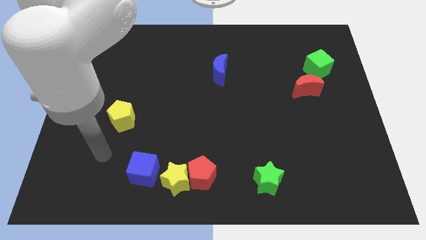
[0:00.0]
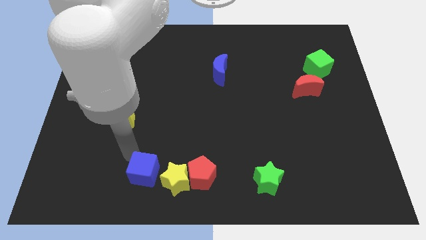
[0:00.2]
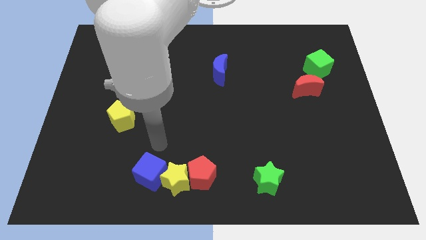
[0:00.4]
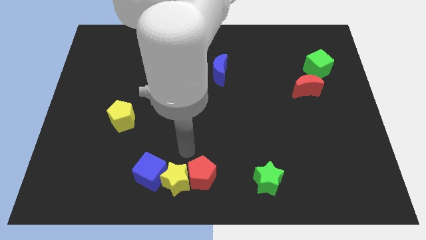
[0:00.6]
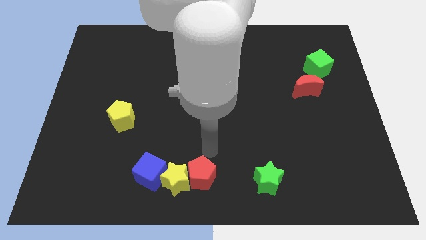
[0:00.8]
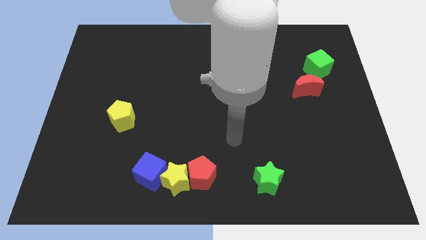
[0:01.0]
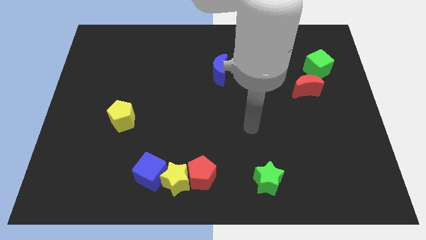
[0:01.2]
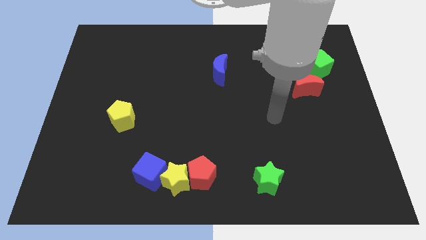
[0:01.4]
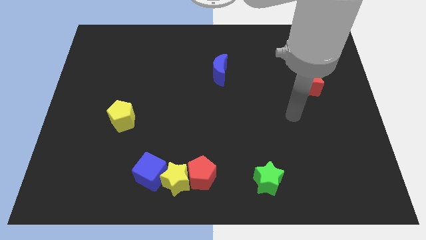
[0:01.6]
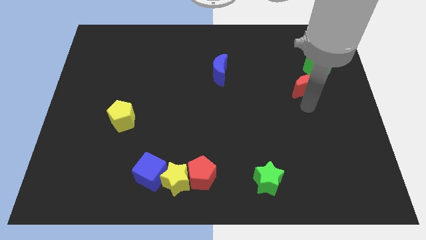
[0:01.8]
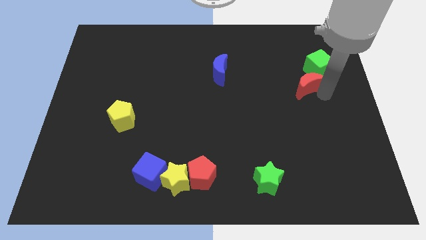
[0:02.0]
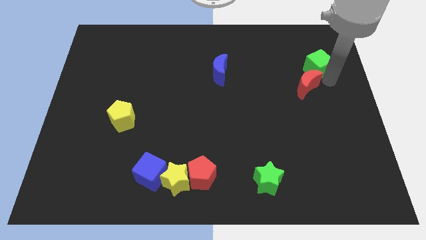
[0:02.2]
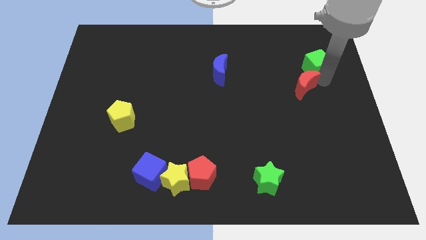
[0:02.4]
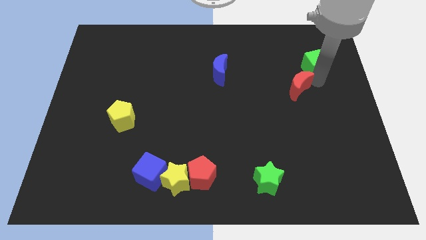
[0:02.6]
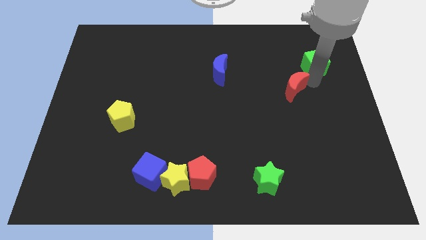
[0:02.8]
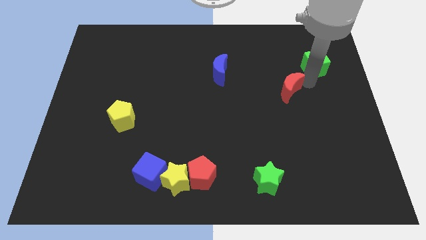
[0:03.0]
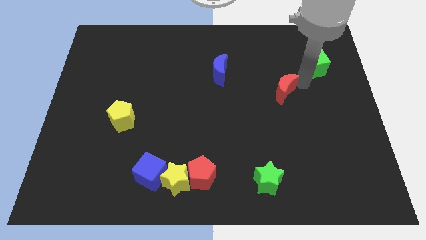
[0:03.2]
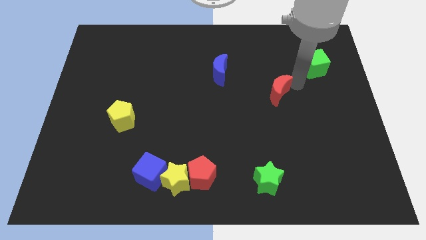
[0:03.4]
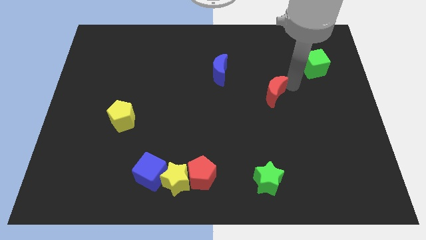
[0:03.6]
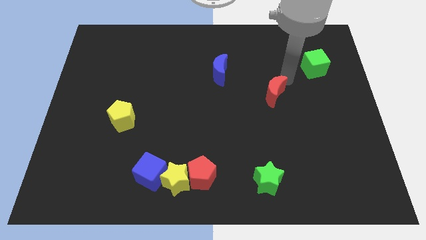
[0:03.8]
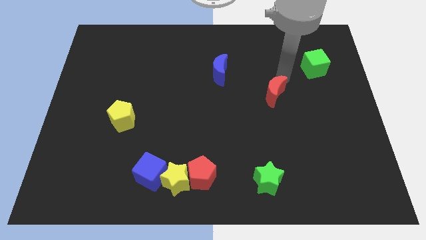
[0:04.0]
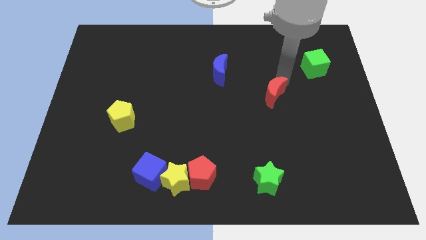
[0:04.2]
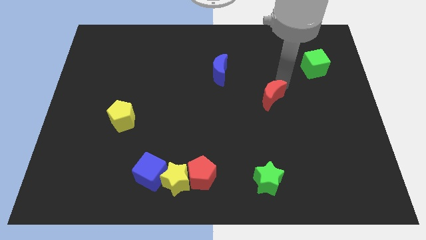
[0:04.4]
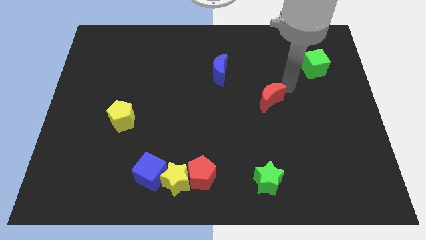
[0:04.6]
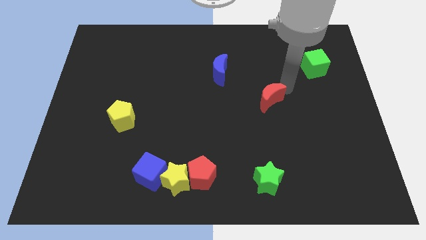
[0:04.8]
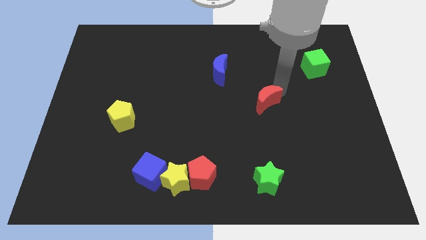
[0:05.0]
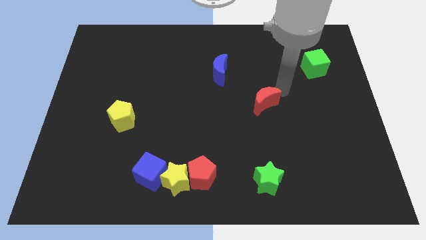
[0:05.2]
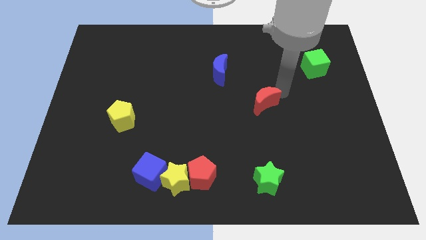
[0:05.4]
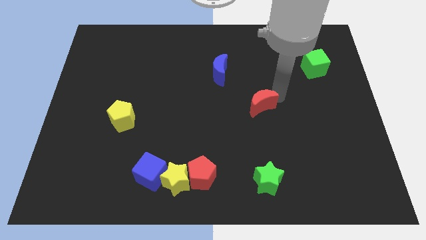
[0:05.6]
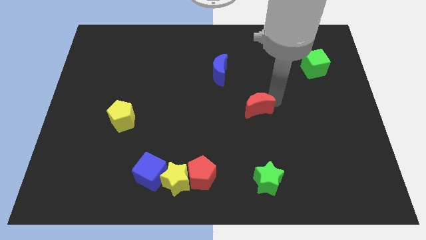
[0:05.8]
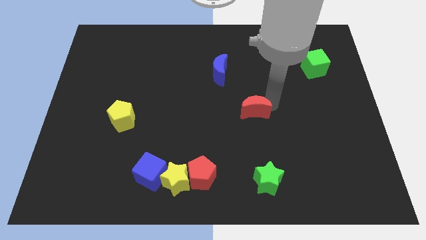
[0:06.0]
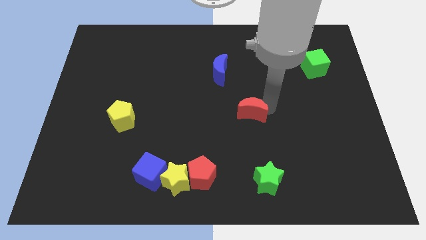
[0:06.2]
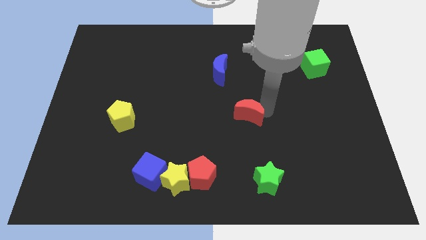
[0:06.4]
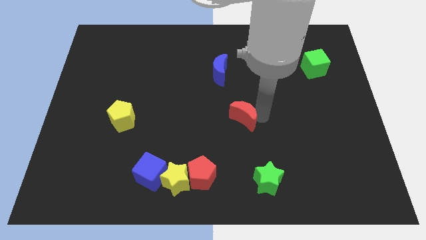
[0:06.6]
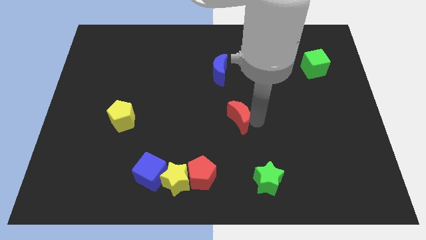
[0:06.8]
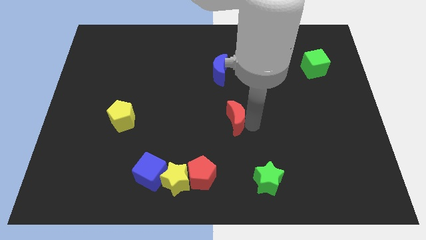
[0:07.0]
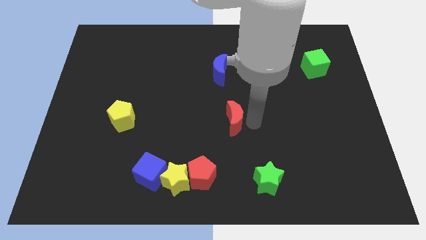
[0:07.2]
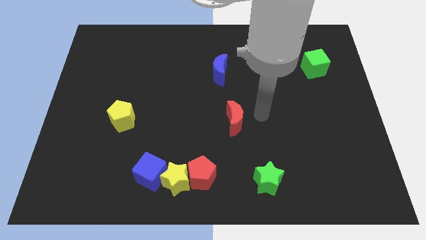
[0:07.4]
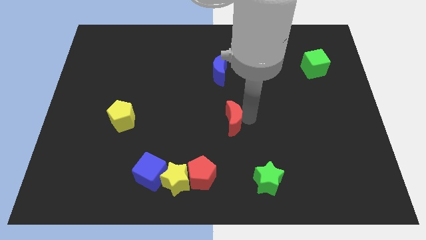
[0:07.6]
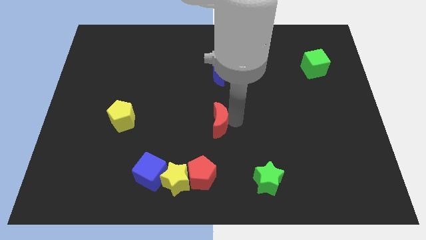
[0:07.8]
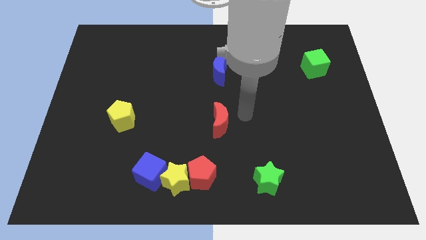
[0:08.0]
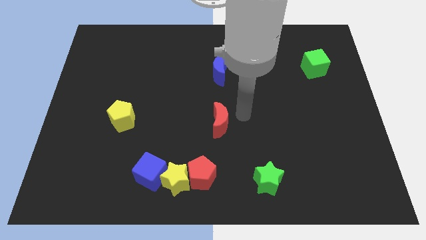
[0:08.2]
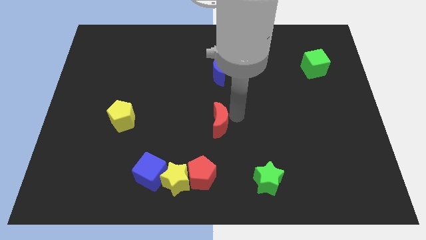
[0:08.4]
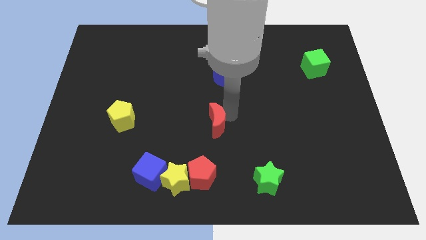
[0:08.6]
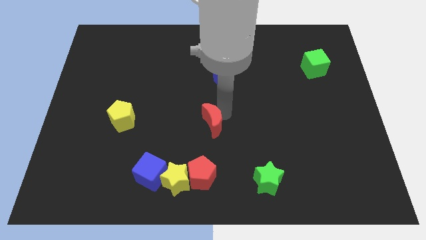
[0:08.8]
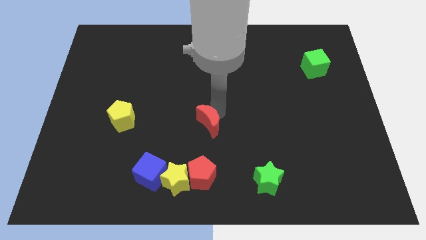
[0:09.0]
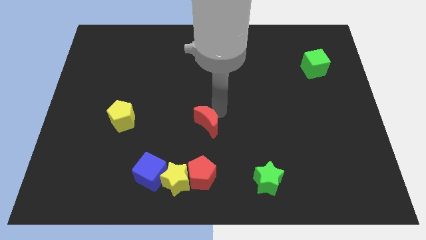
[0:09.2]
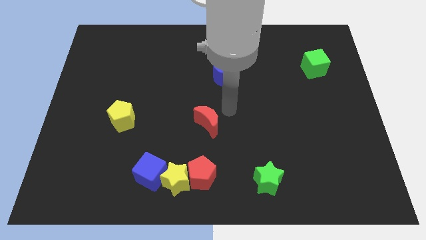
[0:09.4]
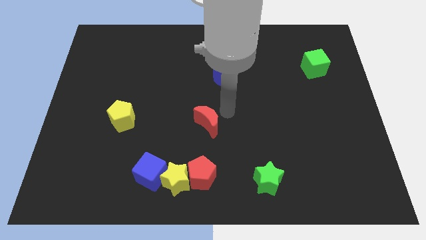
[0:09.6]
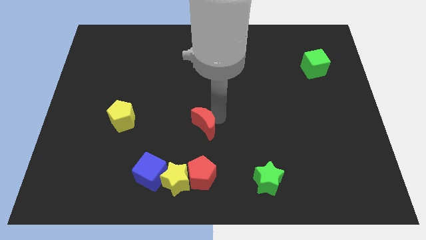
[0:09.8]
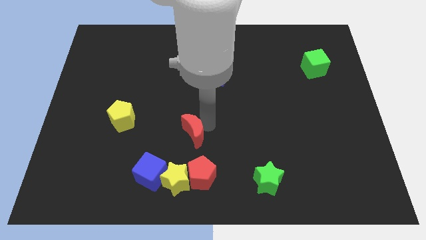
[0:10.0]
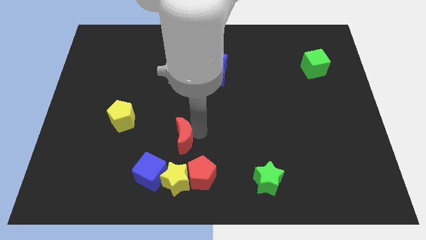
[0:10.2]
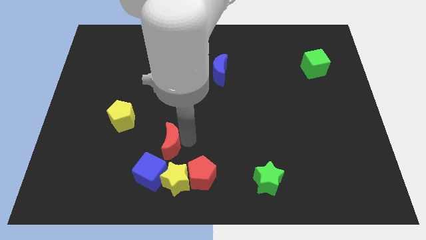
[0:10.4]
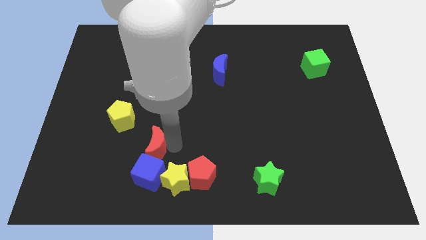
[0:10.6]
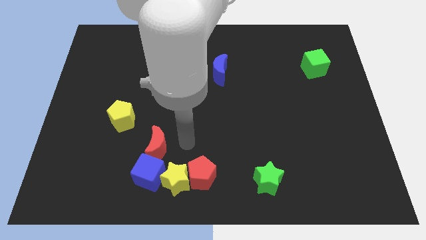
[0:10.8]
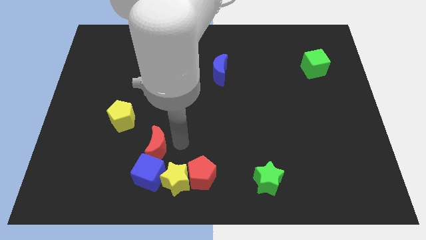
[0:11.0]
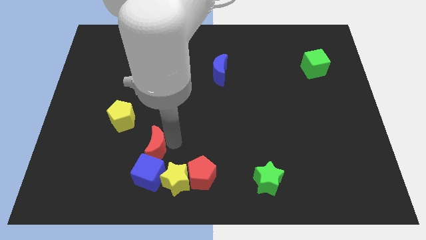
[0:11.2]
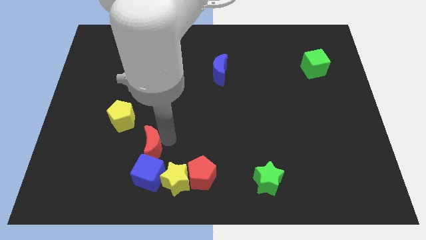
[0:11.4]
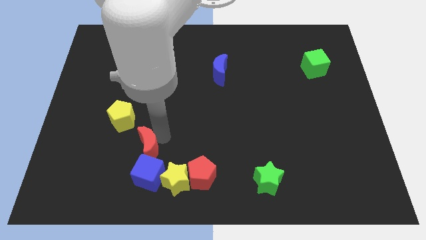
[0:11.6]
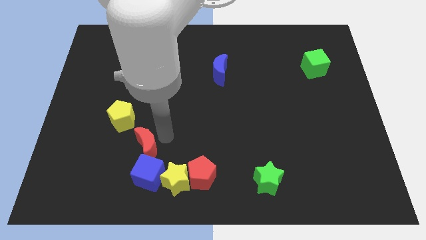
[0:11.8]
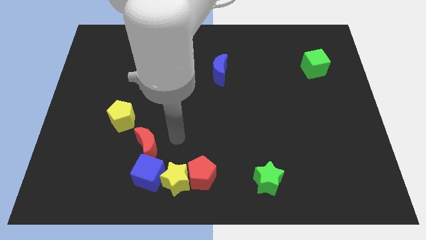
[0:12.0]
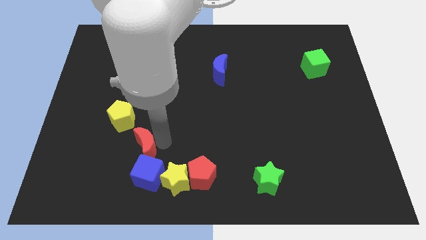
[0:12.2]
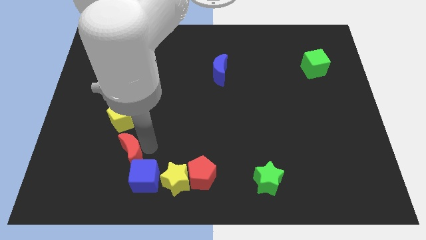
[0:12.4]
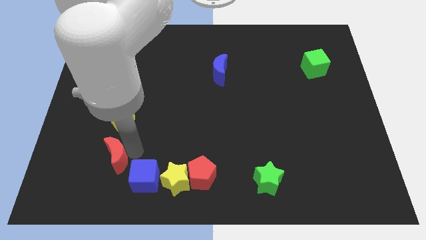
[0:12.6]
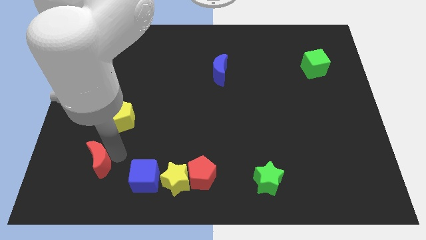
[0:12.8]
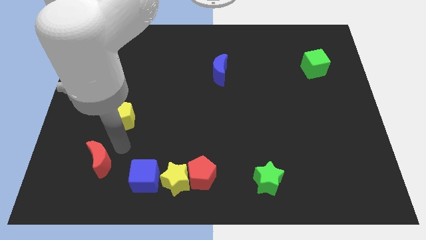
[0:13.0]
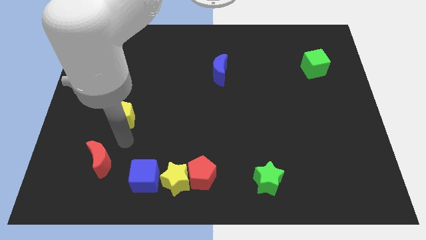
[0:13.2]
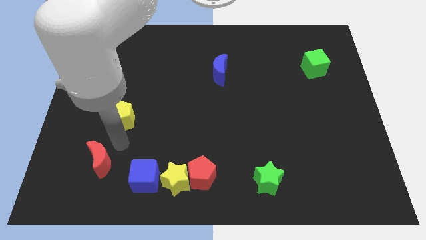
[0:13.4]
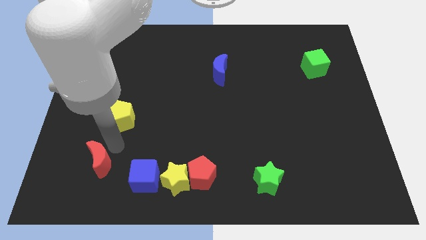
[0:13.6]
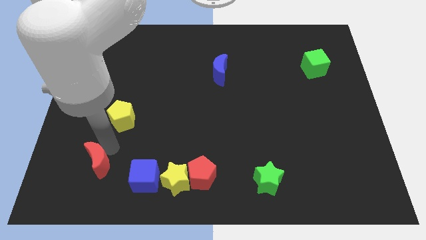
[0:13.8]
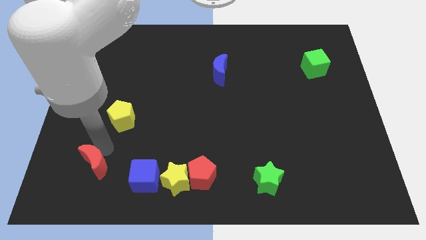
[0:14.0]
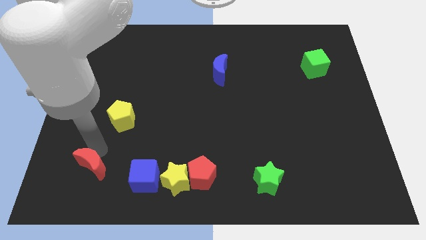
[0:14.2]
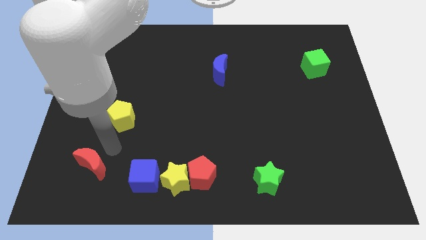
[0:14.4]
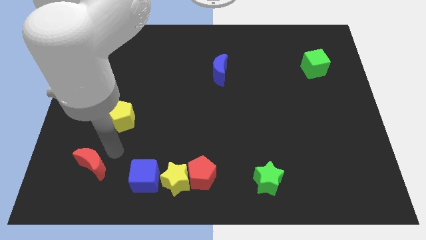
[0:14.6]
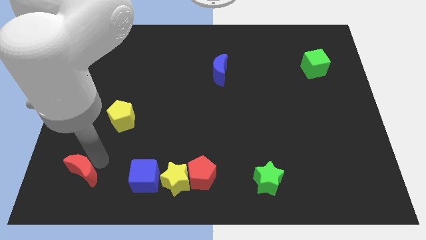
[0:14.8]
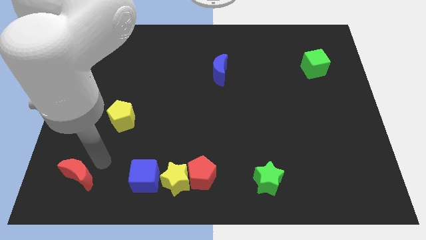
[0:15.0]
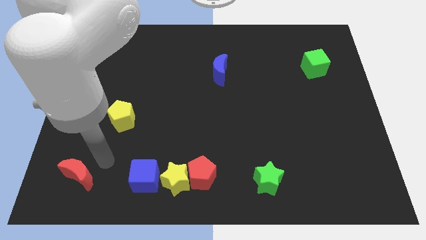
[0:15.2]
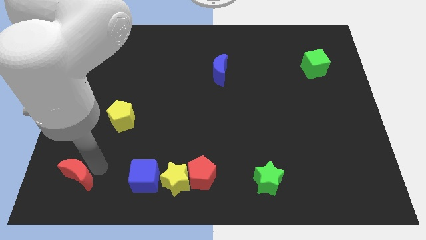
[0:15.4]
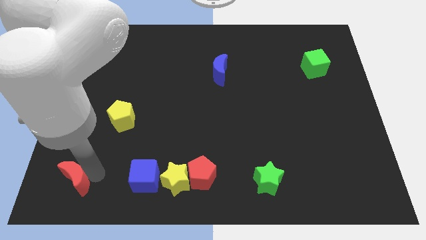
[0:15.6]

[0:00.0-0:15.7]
push the red moon to the bottom left corner
